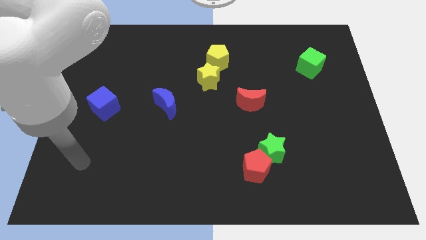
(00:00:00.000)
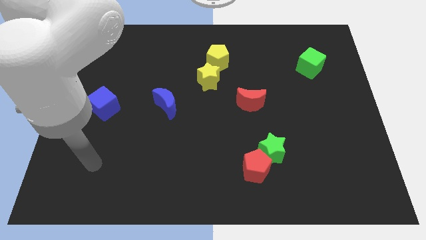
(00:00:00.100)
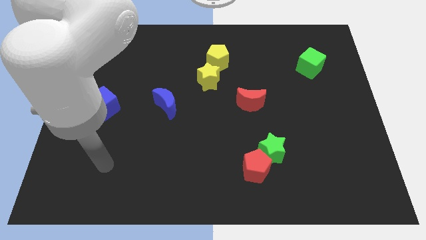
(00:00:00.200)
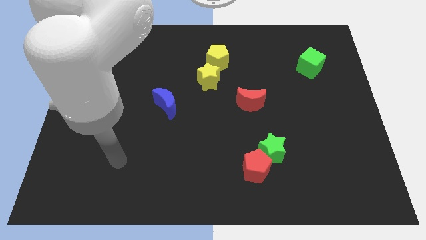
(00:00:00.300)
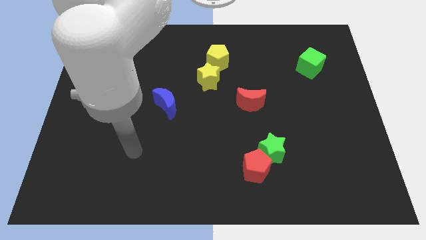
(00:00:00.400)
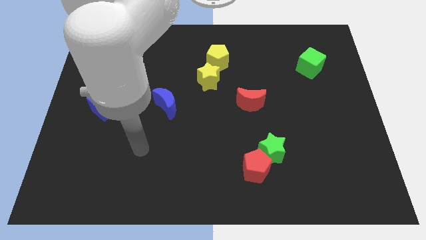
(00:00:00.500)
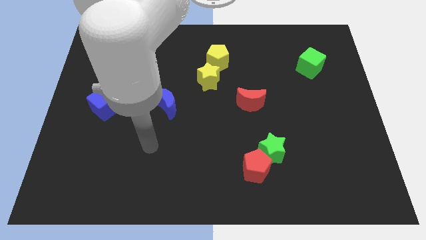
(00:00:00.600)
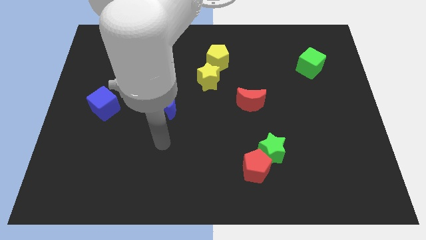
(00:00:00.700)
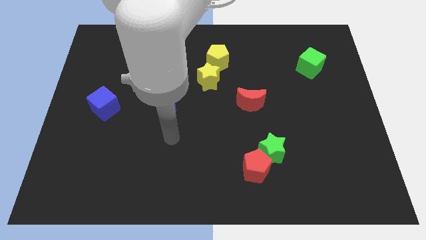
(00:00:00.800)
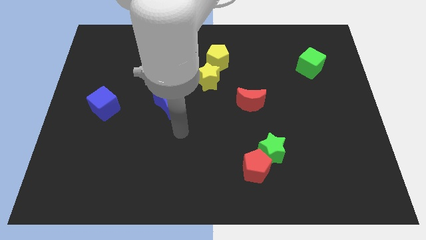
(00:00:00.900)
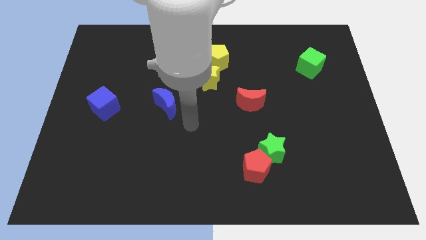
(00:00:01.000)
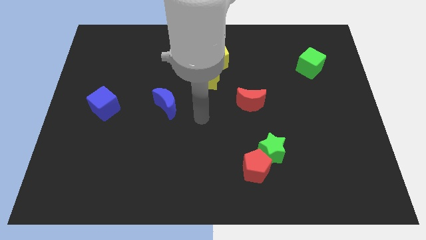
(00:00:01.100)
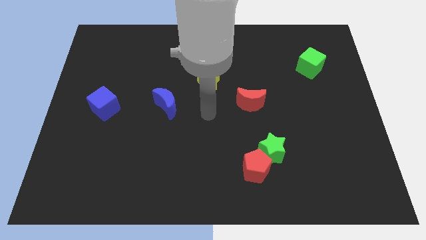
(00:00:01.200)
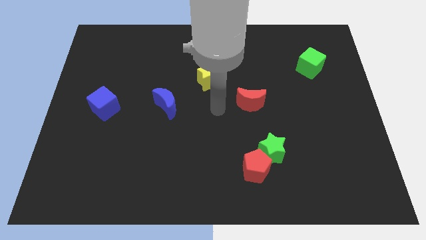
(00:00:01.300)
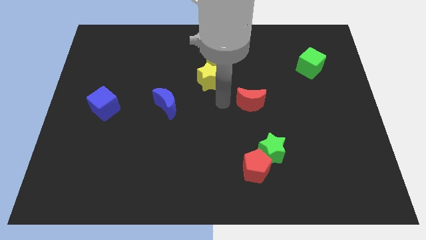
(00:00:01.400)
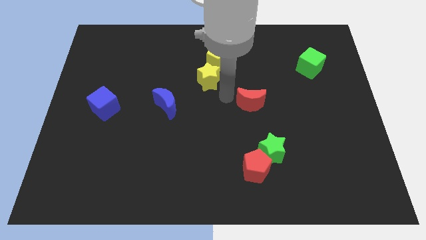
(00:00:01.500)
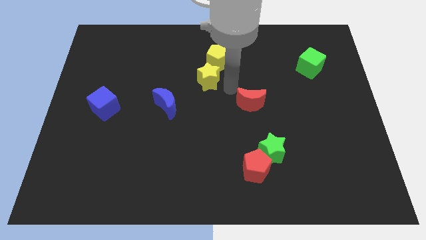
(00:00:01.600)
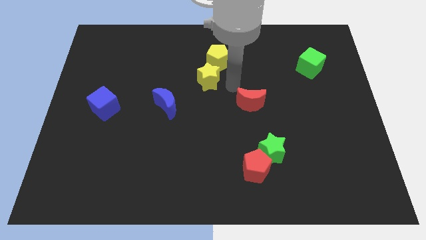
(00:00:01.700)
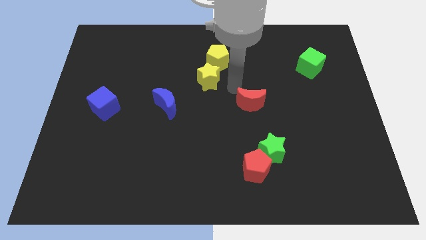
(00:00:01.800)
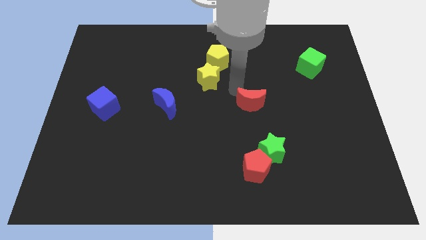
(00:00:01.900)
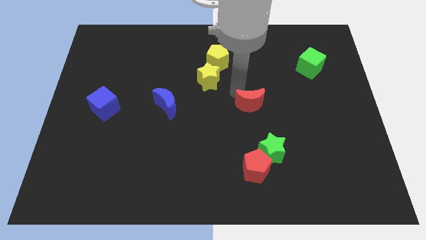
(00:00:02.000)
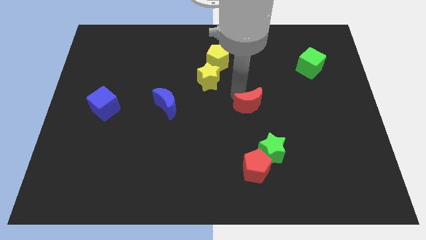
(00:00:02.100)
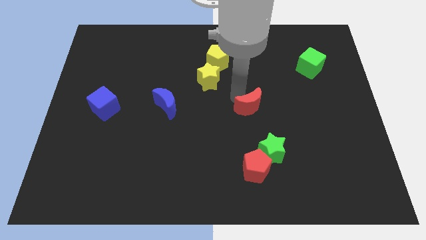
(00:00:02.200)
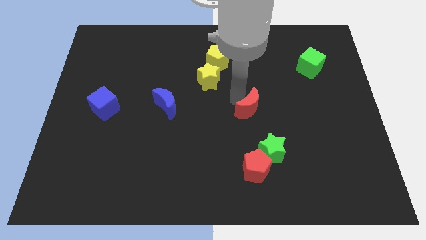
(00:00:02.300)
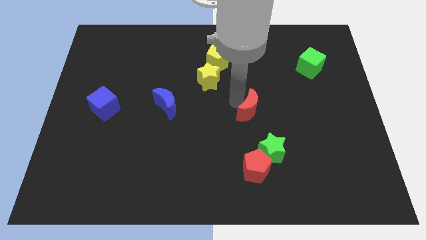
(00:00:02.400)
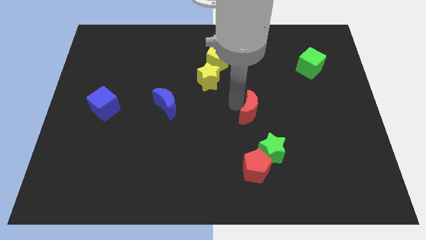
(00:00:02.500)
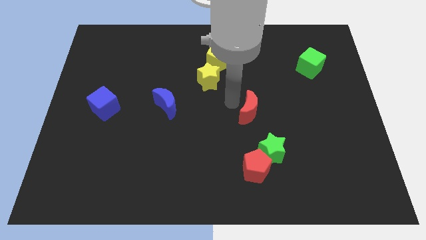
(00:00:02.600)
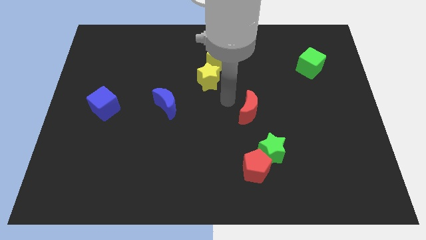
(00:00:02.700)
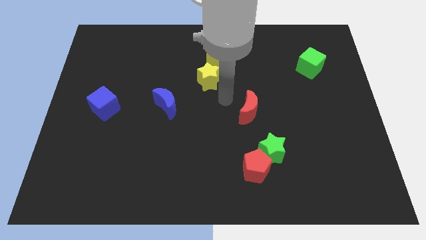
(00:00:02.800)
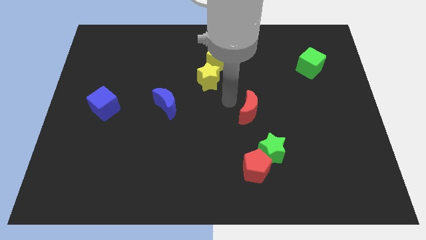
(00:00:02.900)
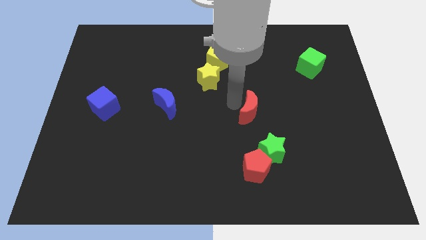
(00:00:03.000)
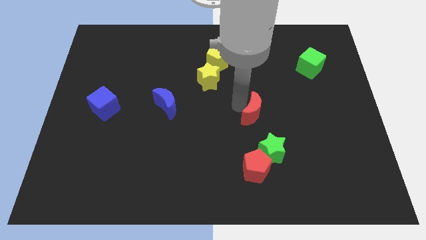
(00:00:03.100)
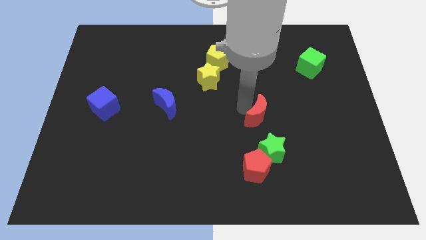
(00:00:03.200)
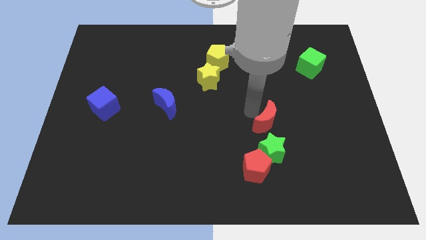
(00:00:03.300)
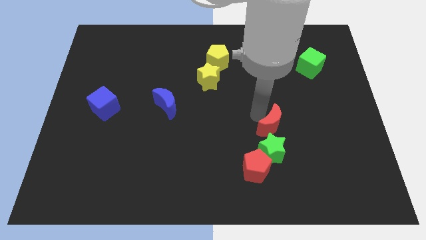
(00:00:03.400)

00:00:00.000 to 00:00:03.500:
slightly slide the red moon downwards and right

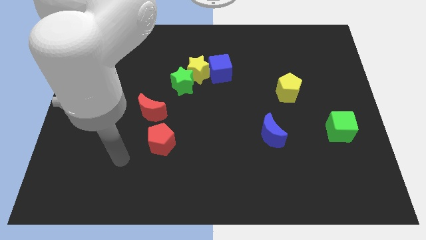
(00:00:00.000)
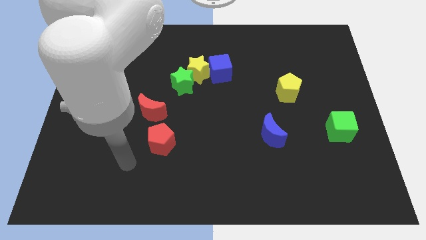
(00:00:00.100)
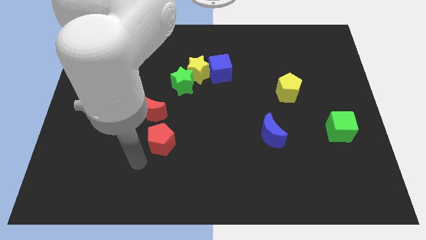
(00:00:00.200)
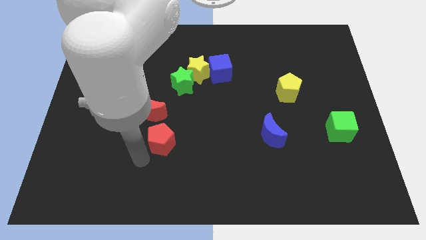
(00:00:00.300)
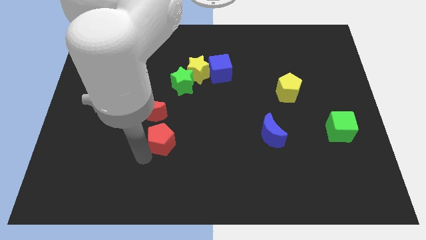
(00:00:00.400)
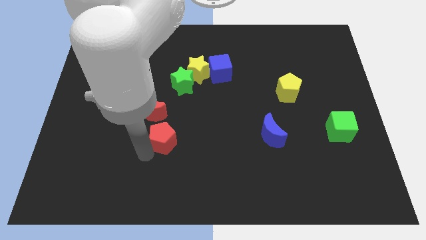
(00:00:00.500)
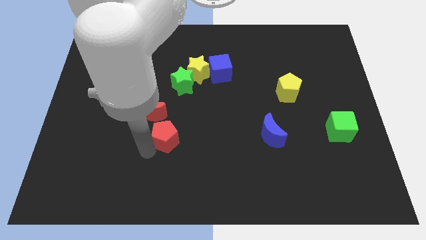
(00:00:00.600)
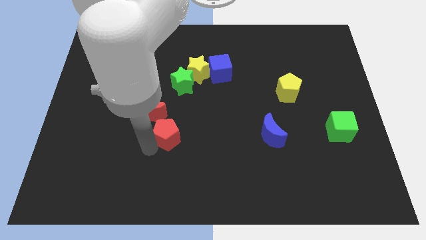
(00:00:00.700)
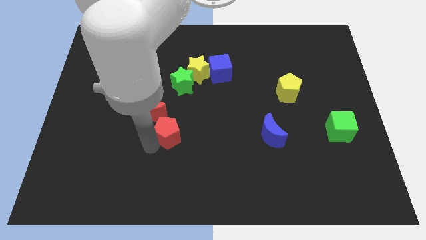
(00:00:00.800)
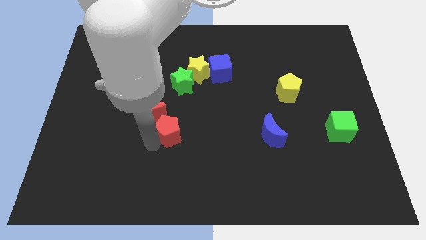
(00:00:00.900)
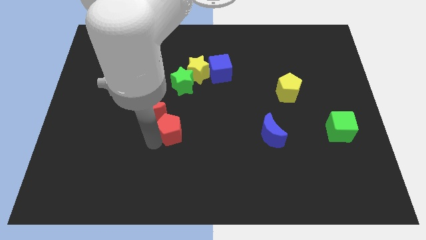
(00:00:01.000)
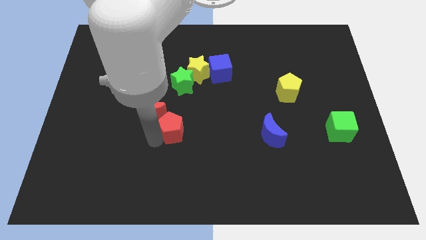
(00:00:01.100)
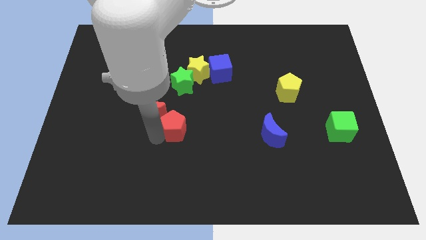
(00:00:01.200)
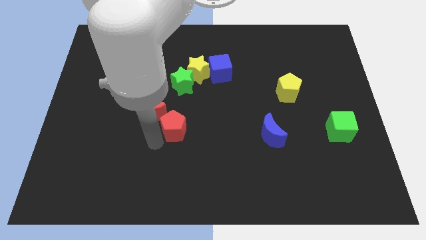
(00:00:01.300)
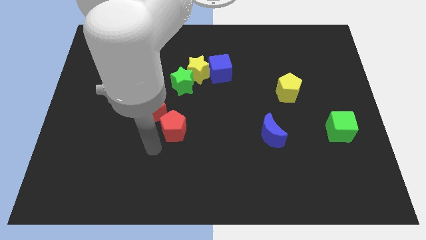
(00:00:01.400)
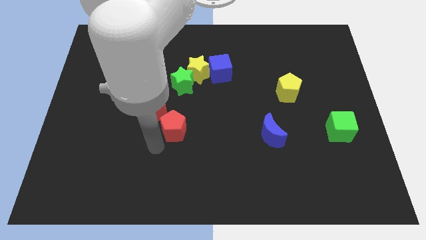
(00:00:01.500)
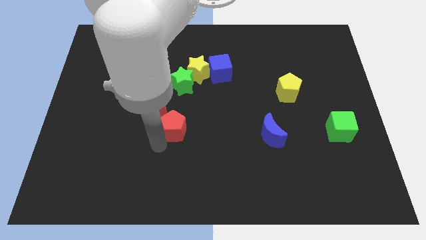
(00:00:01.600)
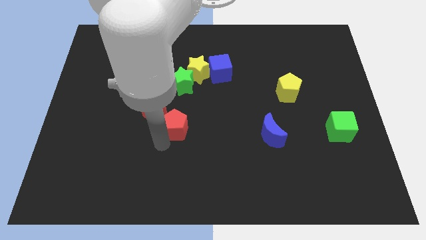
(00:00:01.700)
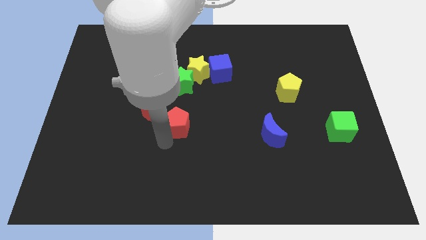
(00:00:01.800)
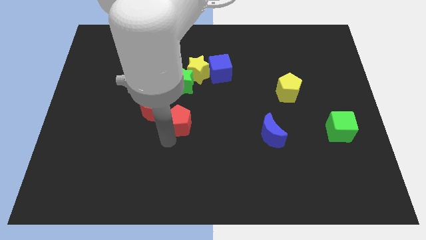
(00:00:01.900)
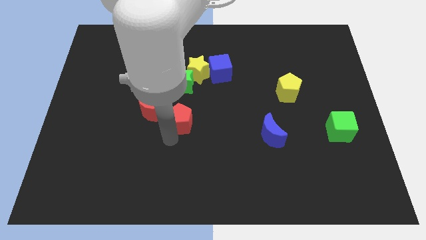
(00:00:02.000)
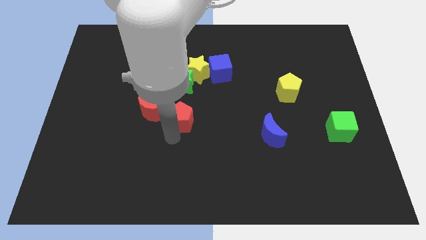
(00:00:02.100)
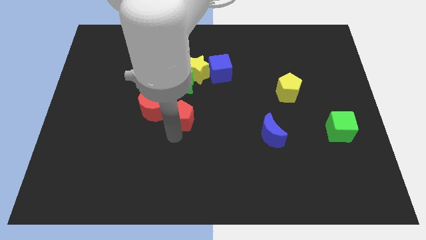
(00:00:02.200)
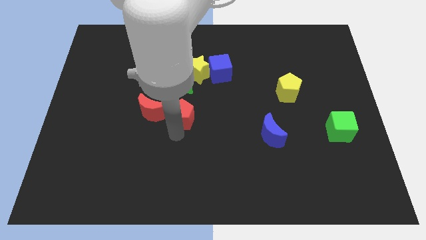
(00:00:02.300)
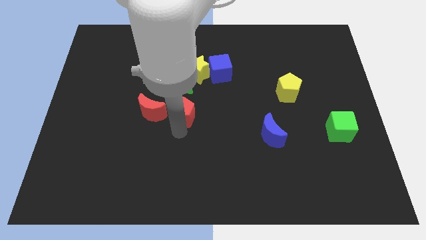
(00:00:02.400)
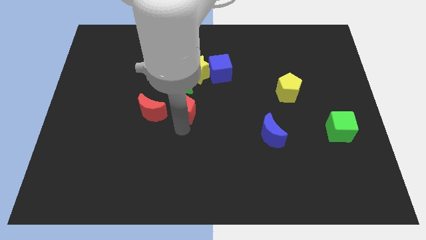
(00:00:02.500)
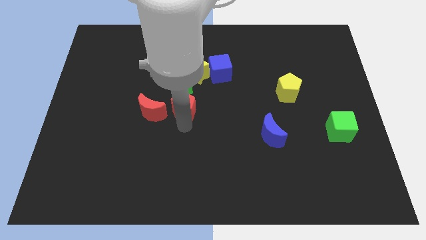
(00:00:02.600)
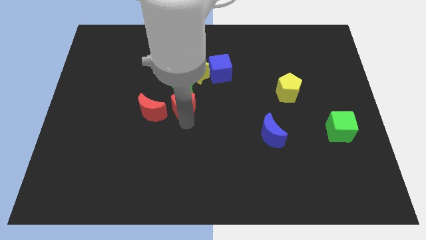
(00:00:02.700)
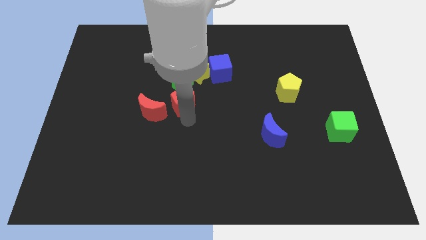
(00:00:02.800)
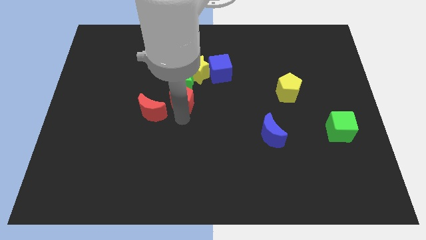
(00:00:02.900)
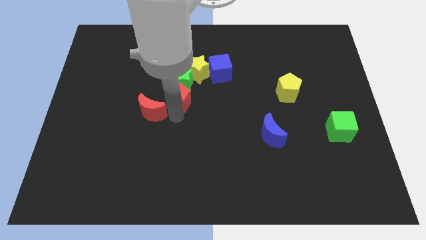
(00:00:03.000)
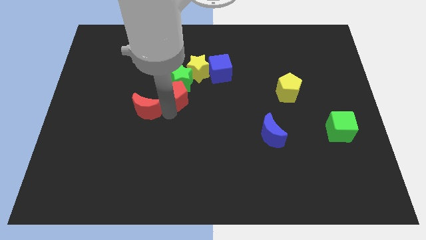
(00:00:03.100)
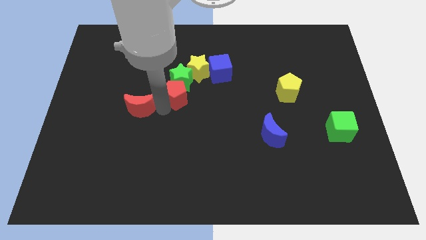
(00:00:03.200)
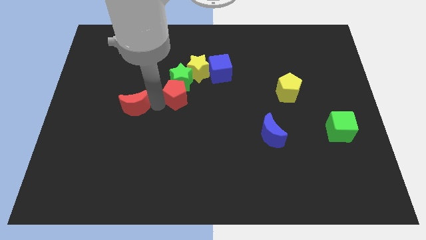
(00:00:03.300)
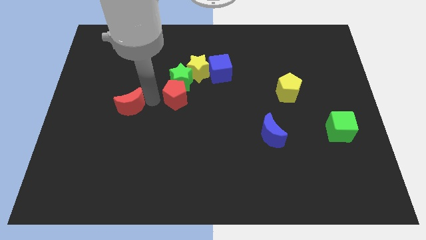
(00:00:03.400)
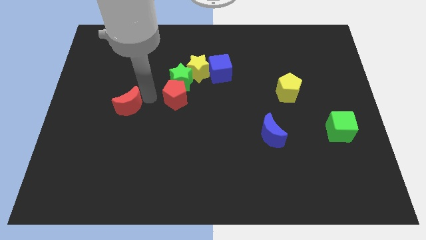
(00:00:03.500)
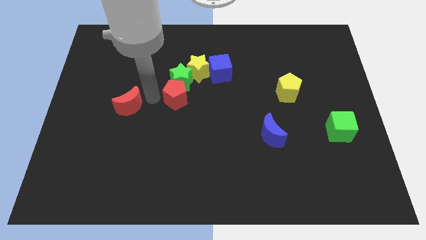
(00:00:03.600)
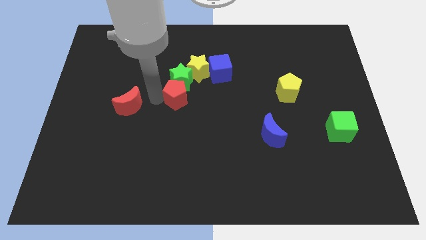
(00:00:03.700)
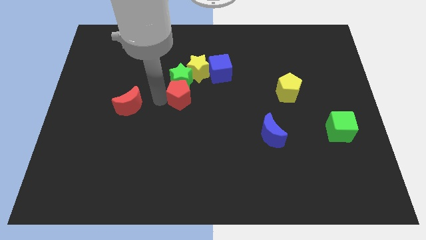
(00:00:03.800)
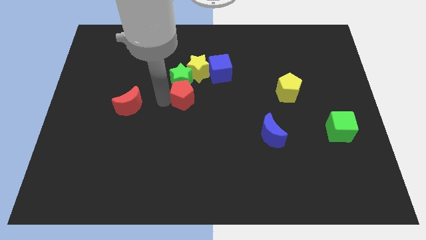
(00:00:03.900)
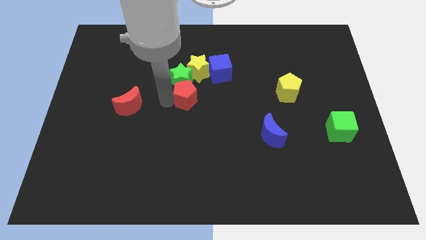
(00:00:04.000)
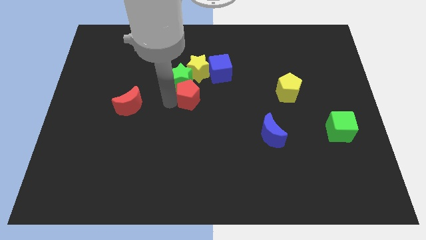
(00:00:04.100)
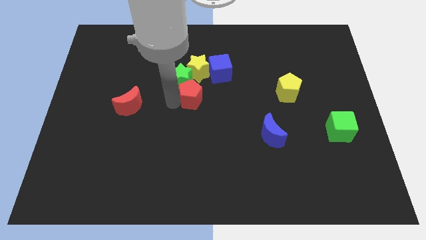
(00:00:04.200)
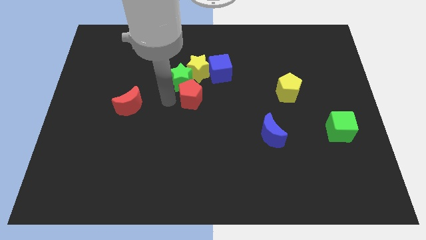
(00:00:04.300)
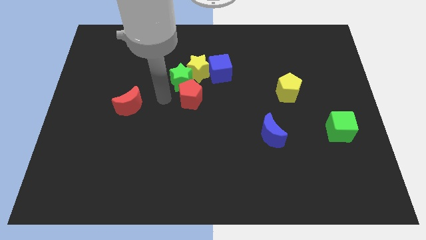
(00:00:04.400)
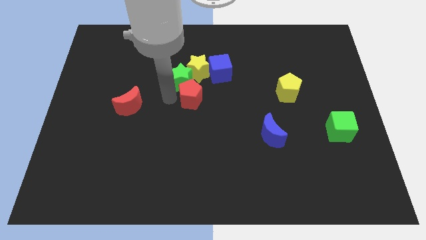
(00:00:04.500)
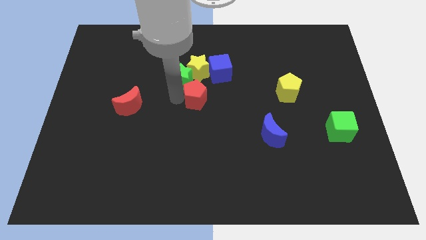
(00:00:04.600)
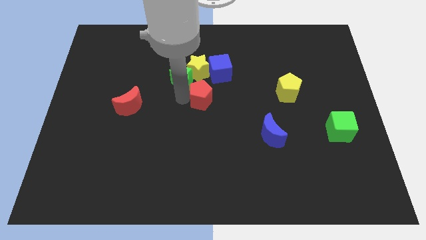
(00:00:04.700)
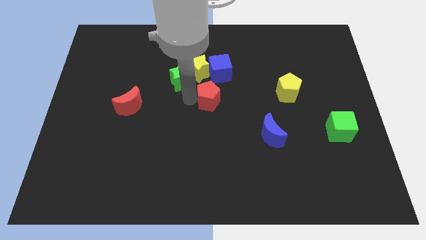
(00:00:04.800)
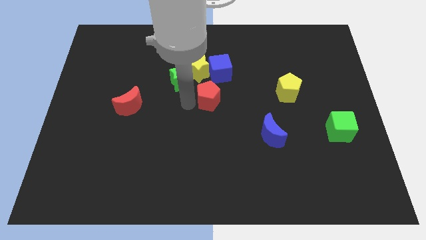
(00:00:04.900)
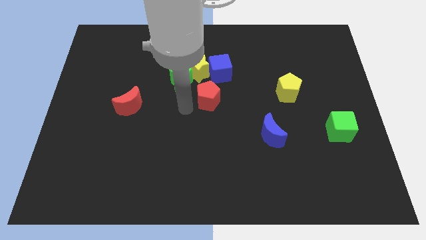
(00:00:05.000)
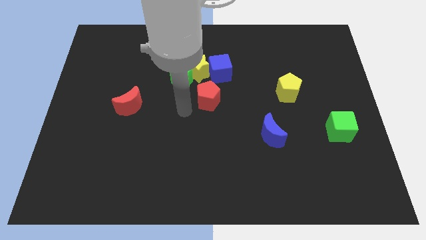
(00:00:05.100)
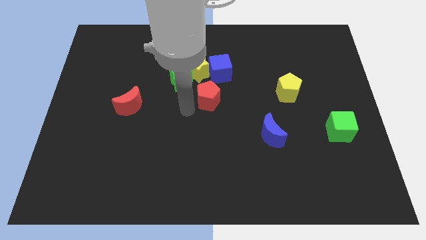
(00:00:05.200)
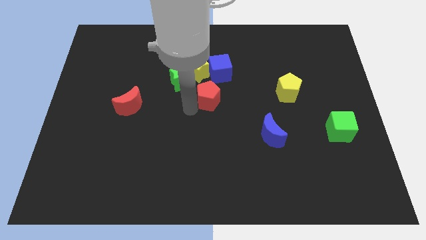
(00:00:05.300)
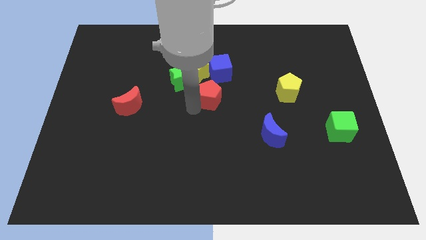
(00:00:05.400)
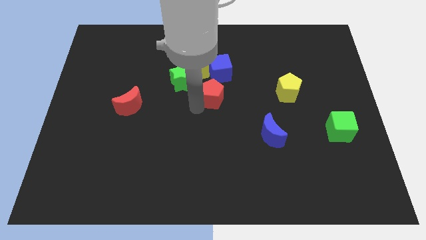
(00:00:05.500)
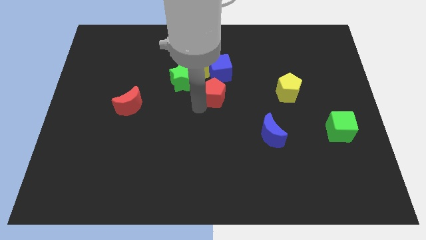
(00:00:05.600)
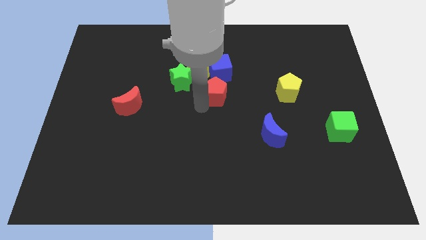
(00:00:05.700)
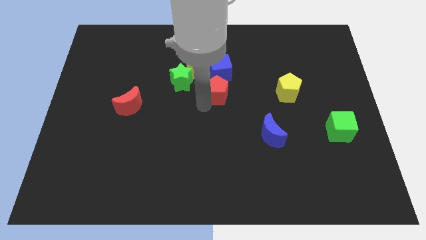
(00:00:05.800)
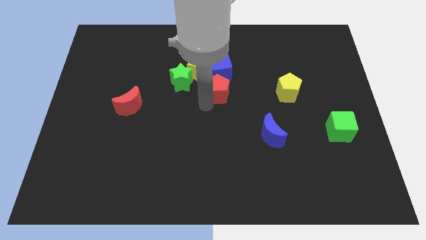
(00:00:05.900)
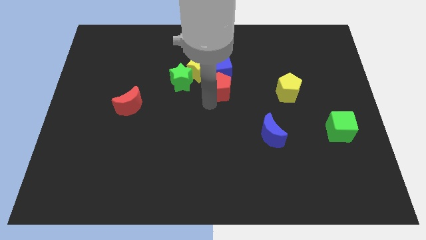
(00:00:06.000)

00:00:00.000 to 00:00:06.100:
slide the red pentagon diagonally upwards and right
